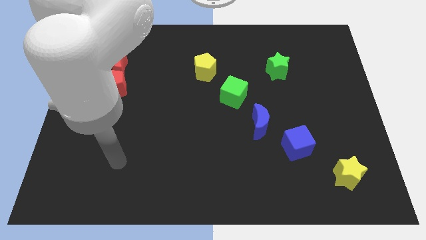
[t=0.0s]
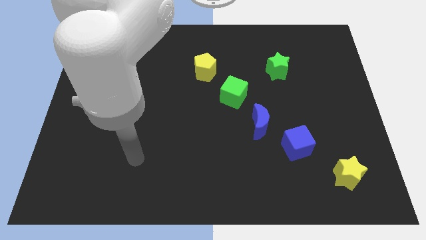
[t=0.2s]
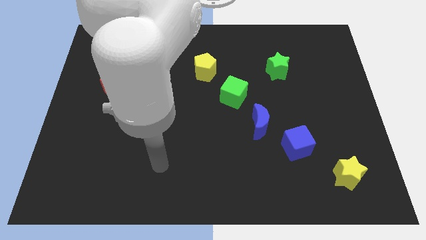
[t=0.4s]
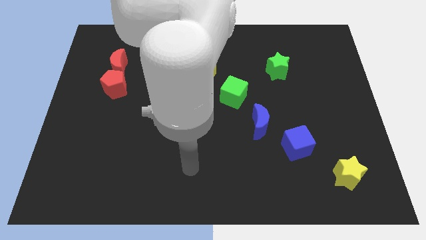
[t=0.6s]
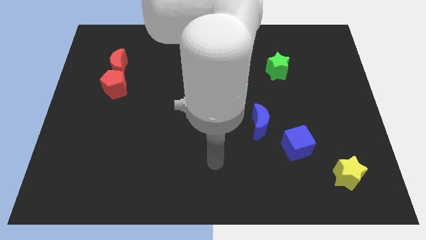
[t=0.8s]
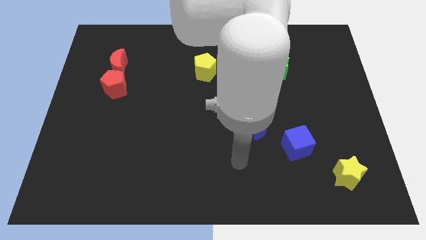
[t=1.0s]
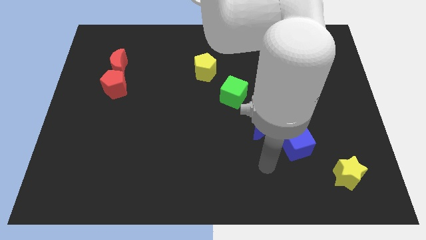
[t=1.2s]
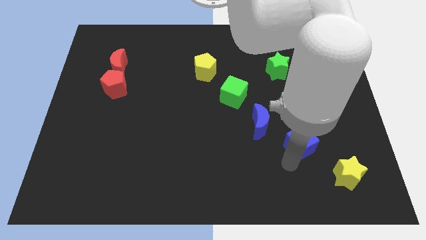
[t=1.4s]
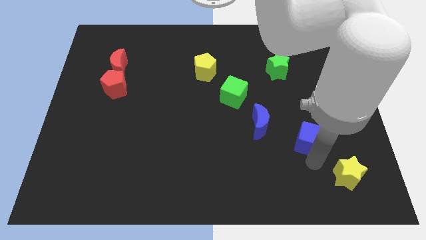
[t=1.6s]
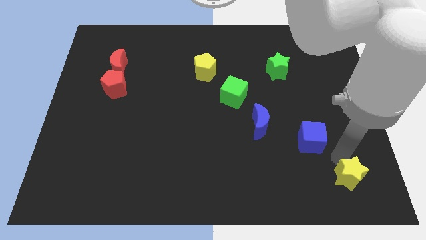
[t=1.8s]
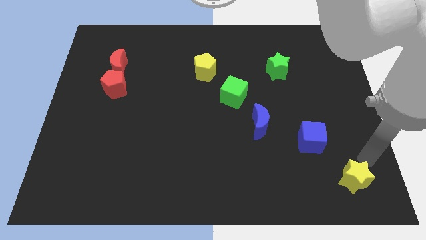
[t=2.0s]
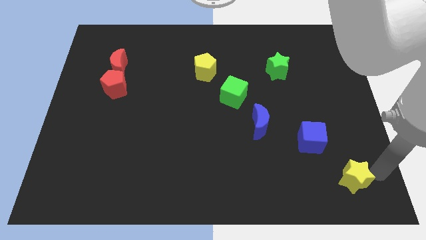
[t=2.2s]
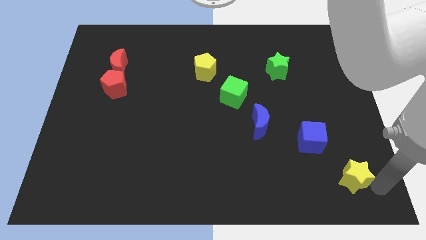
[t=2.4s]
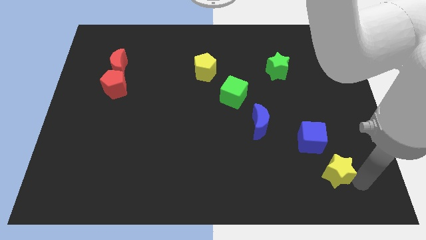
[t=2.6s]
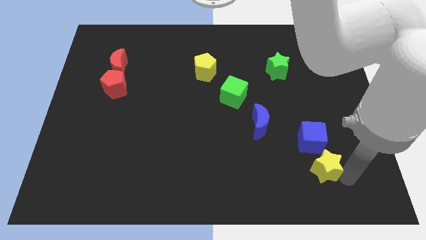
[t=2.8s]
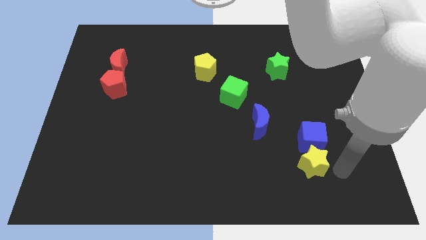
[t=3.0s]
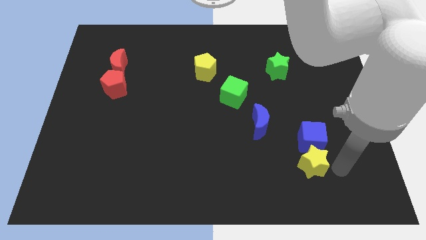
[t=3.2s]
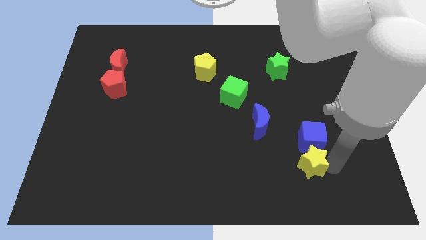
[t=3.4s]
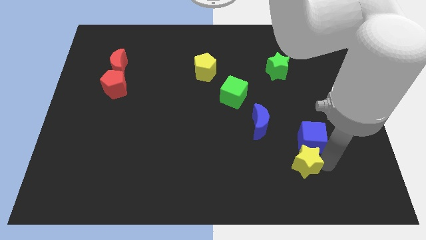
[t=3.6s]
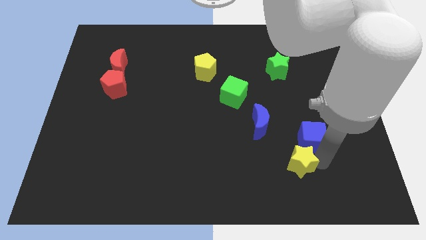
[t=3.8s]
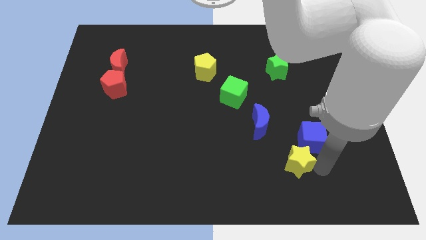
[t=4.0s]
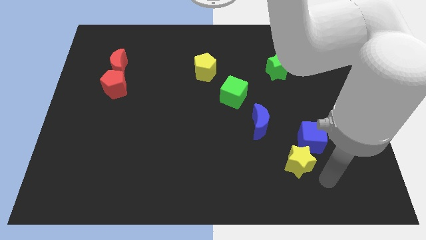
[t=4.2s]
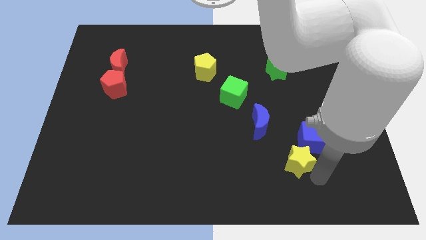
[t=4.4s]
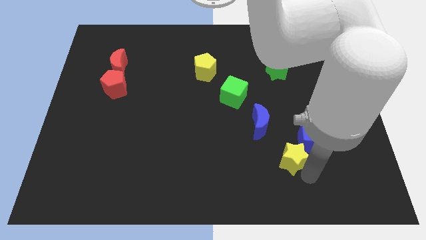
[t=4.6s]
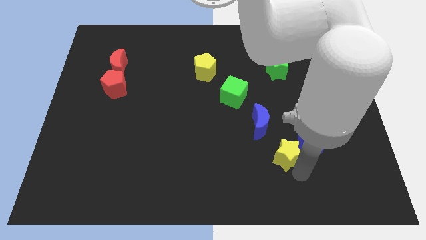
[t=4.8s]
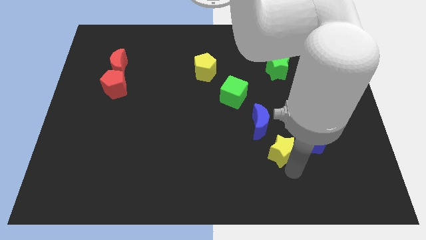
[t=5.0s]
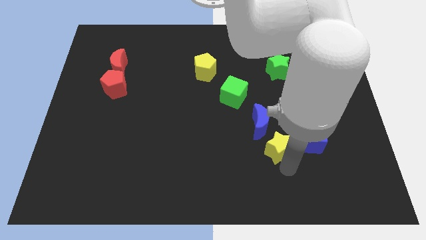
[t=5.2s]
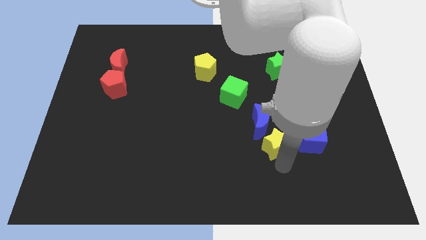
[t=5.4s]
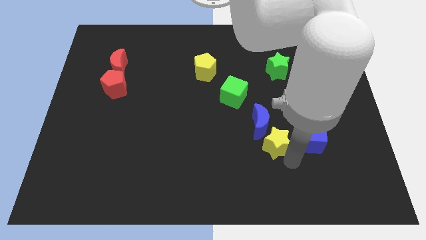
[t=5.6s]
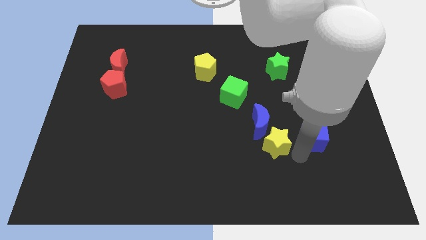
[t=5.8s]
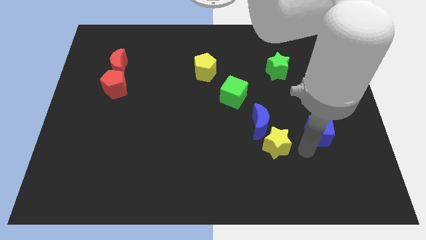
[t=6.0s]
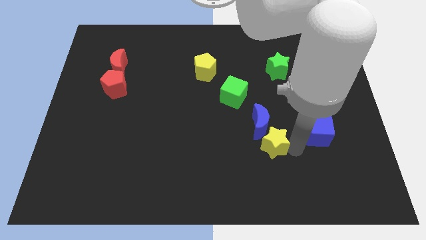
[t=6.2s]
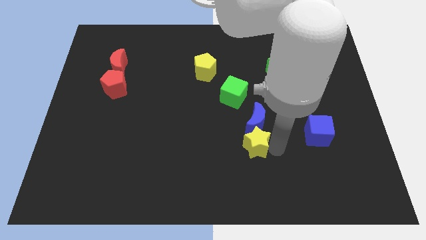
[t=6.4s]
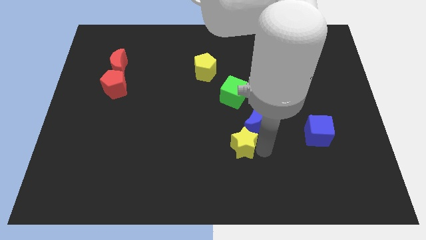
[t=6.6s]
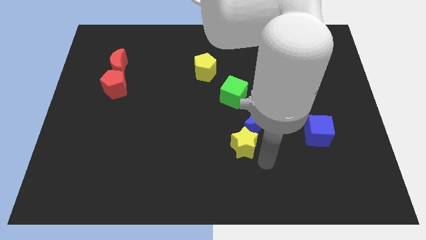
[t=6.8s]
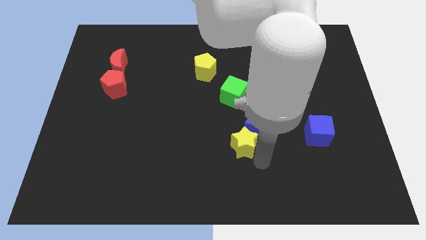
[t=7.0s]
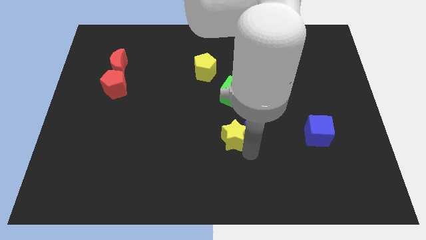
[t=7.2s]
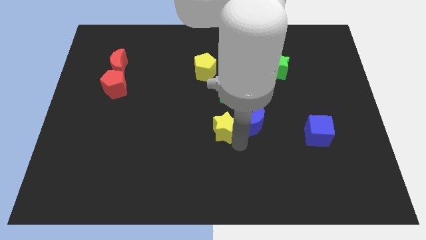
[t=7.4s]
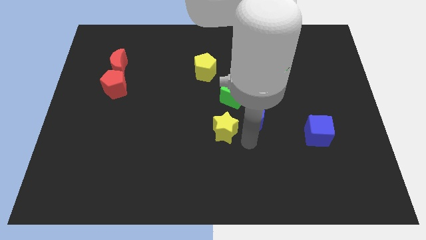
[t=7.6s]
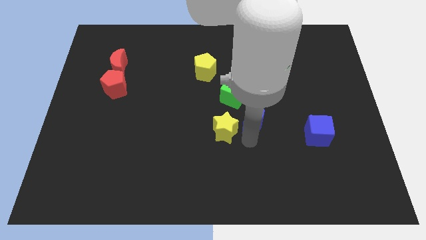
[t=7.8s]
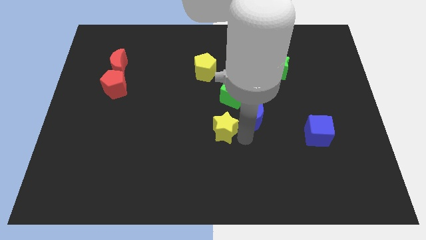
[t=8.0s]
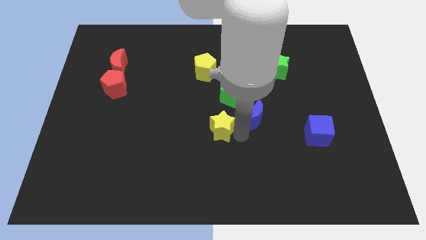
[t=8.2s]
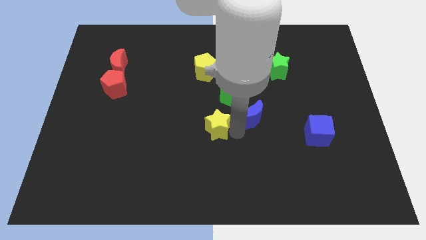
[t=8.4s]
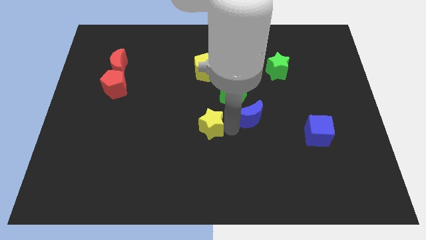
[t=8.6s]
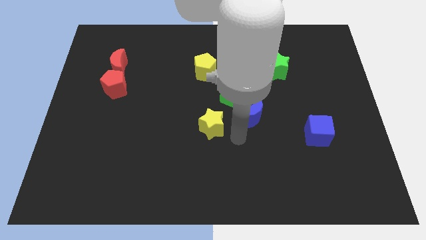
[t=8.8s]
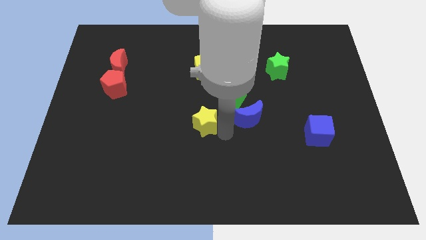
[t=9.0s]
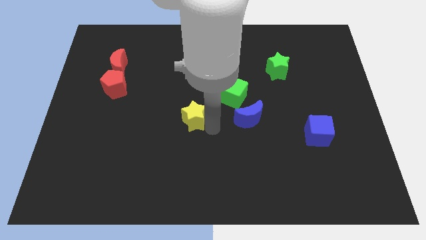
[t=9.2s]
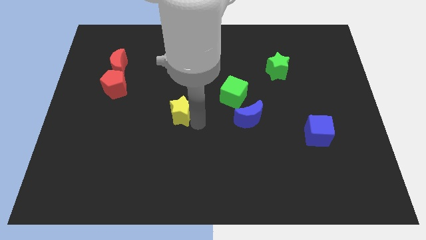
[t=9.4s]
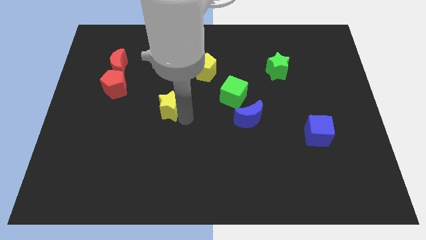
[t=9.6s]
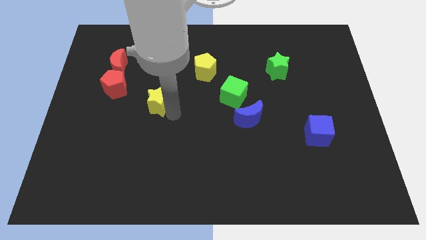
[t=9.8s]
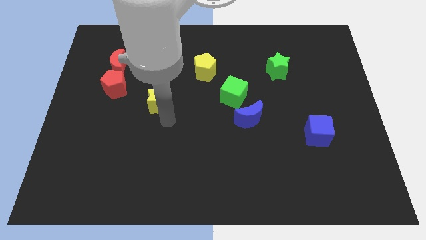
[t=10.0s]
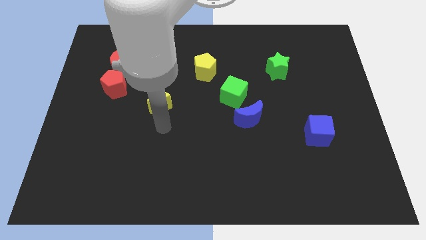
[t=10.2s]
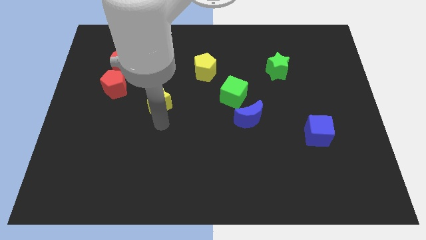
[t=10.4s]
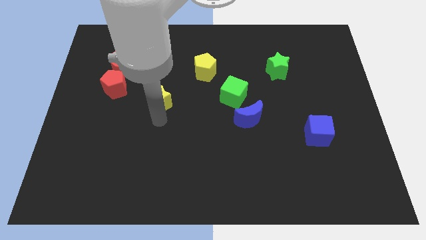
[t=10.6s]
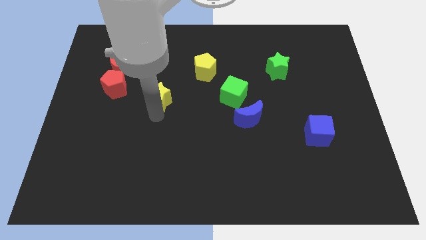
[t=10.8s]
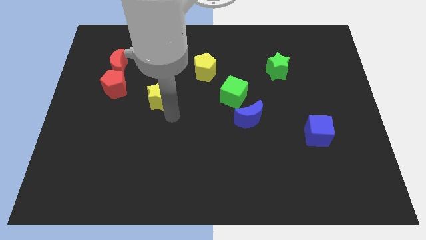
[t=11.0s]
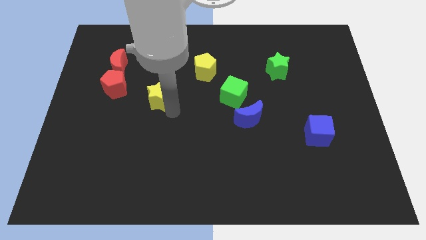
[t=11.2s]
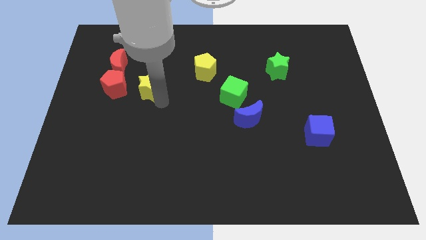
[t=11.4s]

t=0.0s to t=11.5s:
slide the yellow star to the bottom right of the red moon

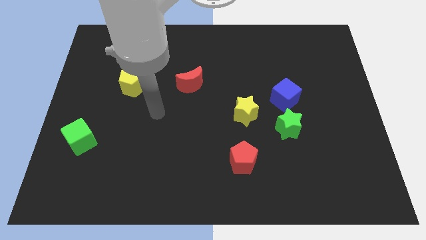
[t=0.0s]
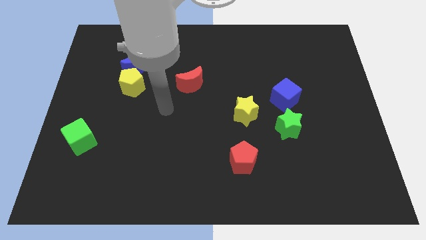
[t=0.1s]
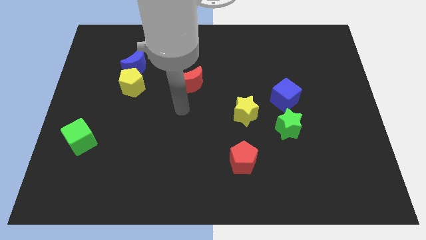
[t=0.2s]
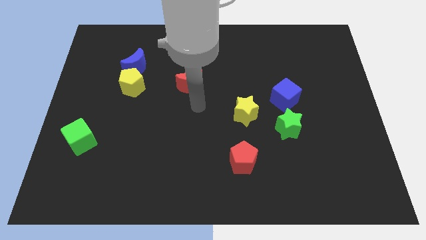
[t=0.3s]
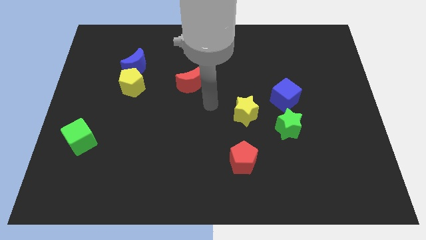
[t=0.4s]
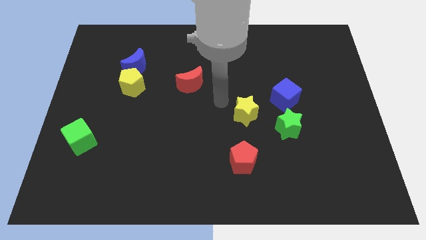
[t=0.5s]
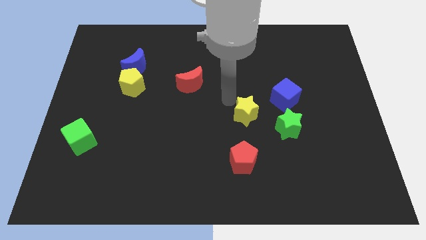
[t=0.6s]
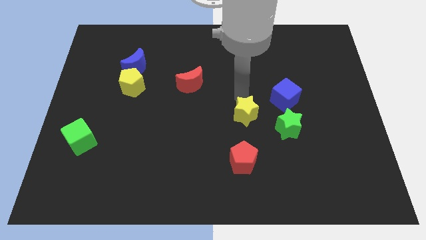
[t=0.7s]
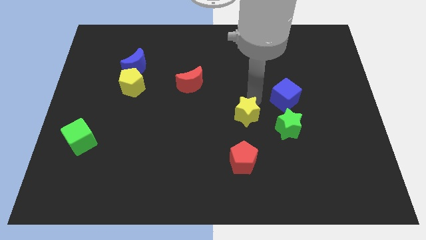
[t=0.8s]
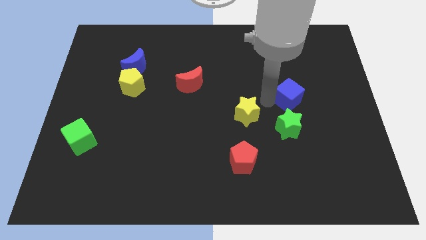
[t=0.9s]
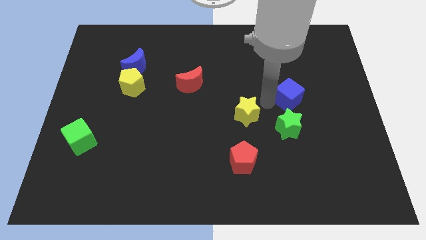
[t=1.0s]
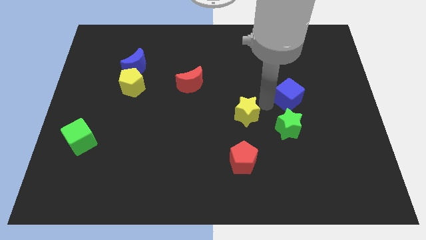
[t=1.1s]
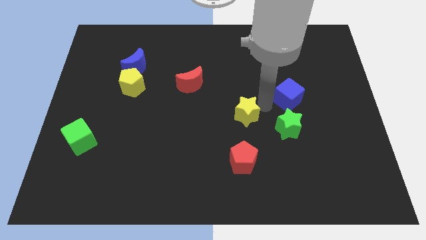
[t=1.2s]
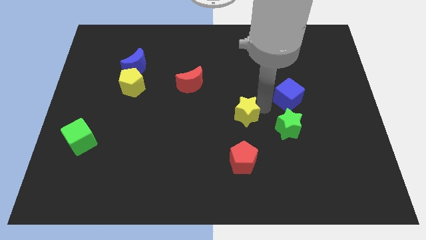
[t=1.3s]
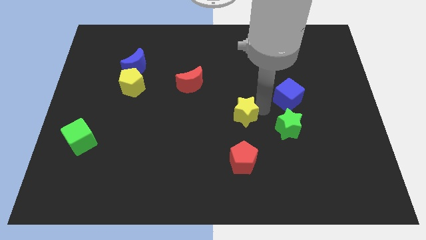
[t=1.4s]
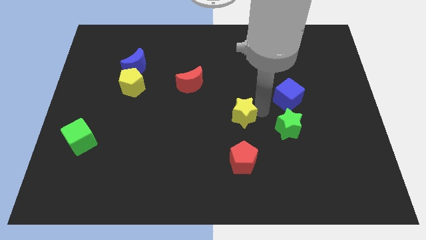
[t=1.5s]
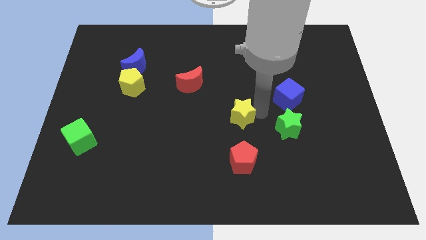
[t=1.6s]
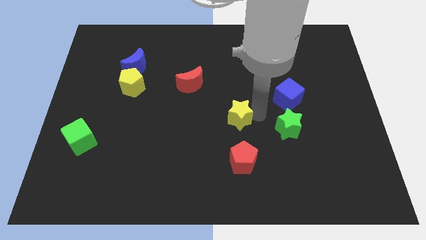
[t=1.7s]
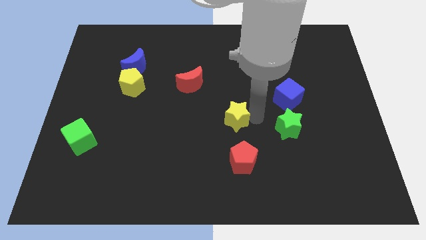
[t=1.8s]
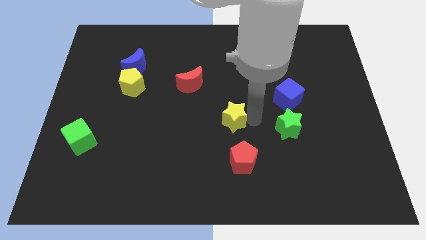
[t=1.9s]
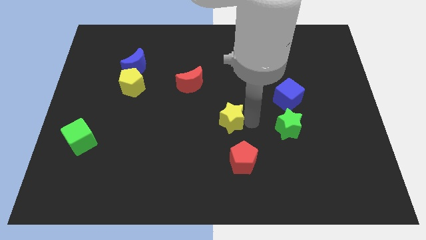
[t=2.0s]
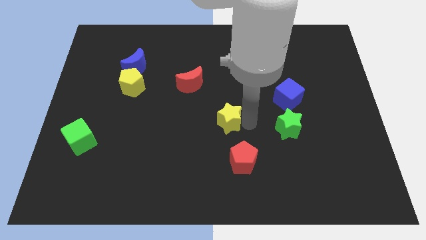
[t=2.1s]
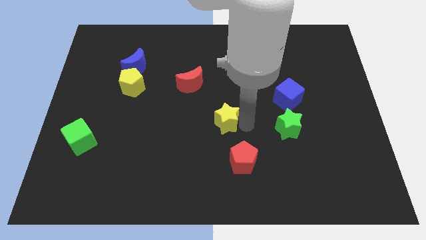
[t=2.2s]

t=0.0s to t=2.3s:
push the yellow star to the top left side of the red pentagon

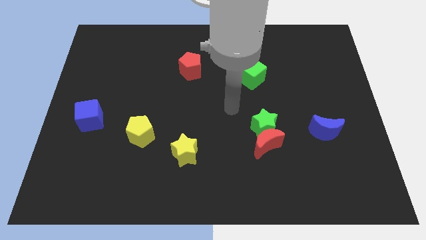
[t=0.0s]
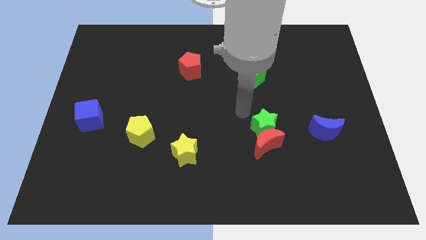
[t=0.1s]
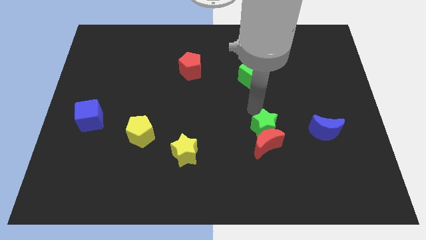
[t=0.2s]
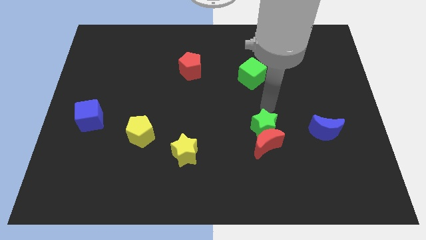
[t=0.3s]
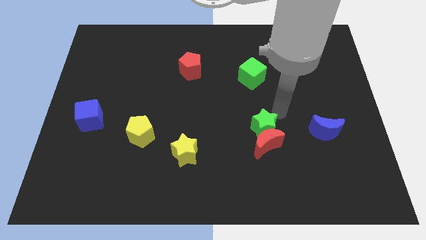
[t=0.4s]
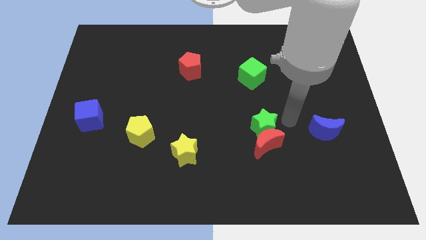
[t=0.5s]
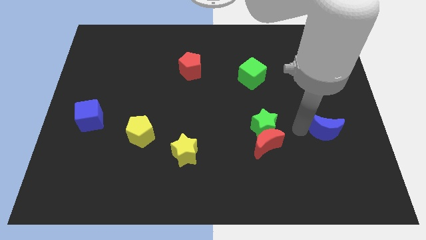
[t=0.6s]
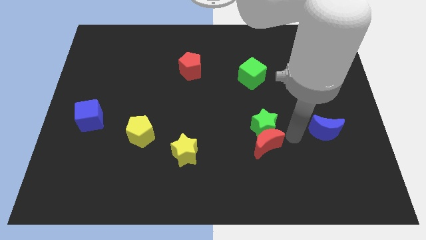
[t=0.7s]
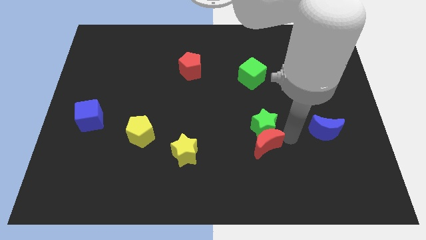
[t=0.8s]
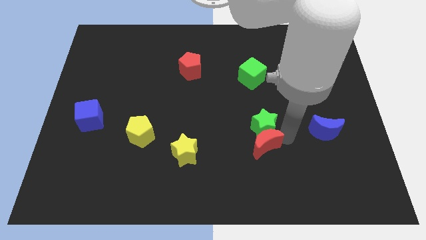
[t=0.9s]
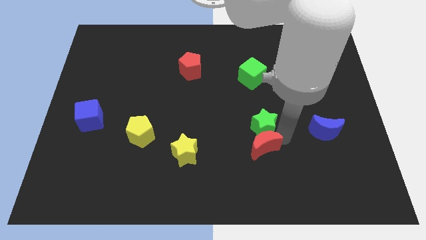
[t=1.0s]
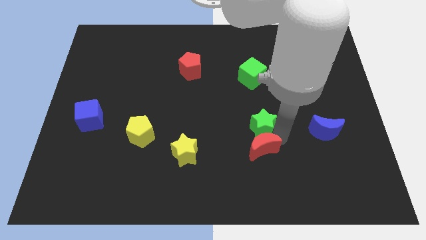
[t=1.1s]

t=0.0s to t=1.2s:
put the red moon just right of the yellow star
